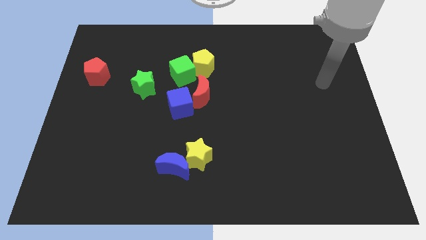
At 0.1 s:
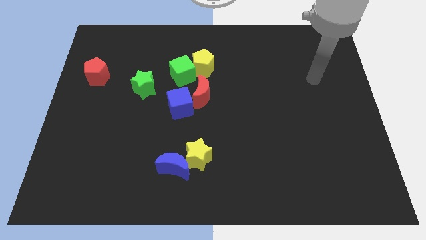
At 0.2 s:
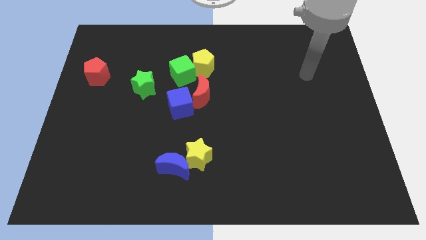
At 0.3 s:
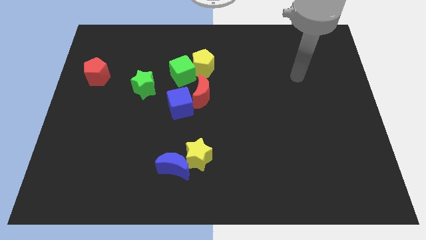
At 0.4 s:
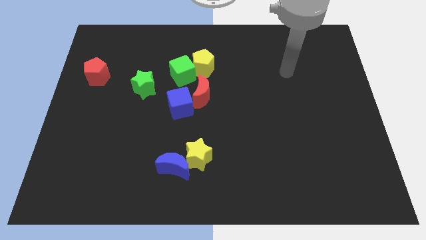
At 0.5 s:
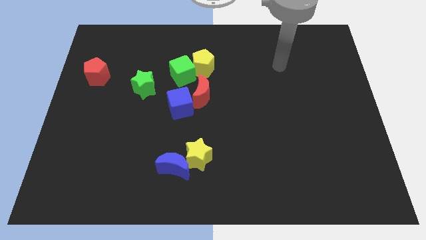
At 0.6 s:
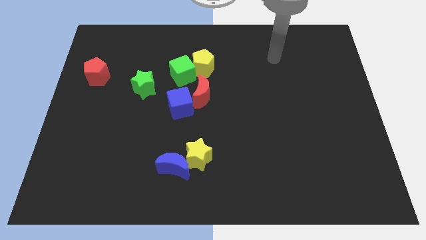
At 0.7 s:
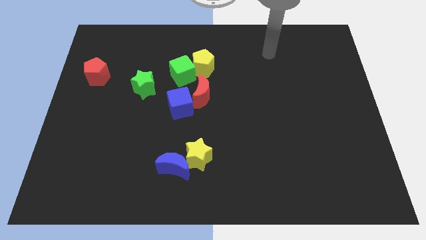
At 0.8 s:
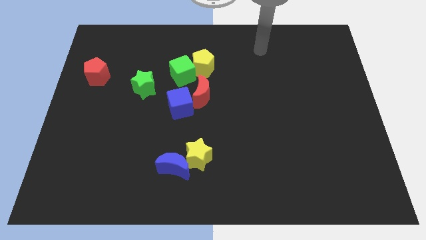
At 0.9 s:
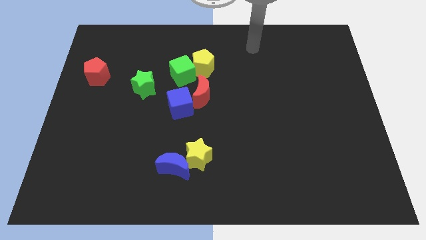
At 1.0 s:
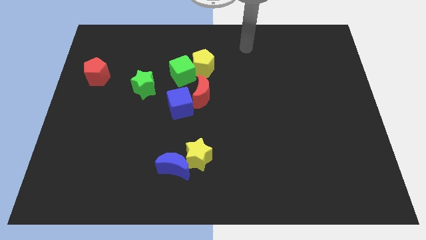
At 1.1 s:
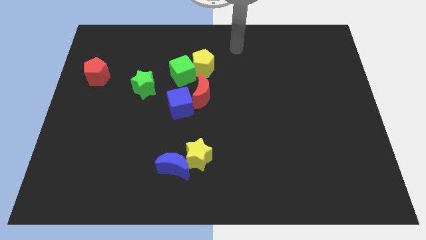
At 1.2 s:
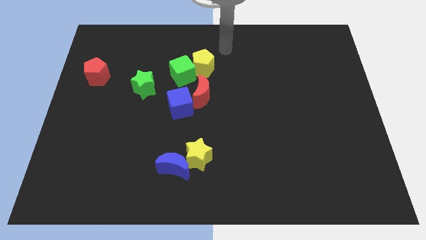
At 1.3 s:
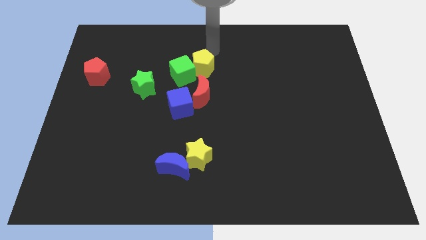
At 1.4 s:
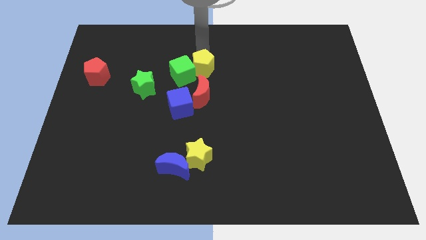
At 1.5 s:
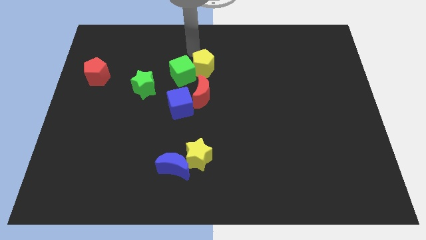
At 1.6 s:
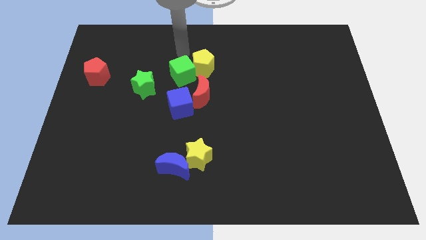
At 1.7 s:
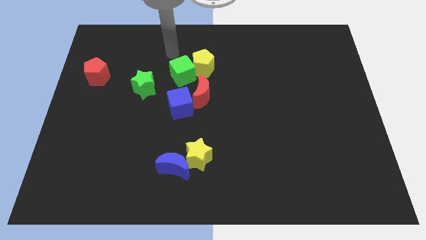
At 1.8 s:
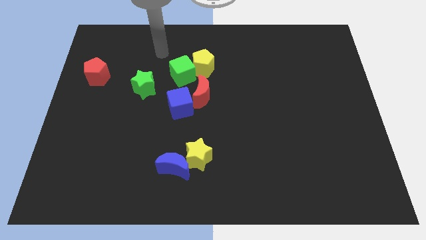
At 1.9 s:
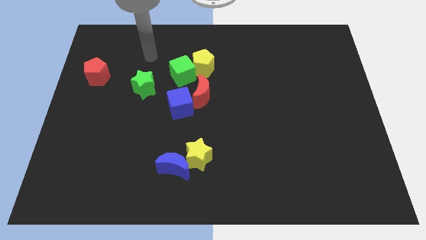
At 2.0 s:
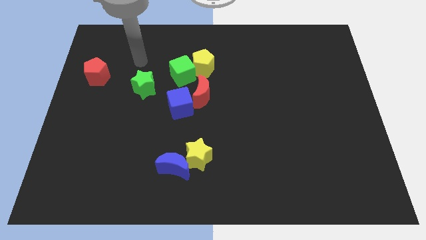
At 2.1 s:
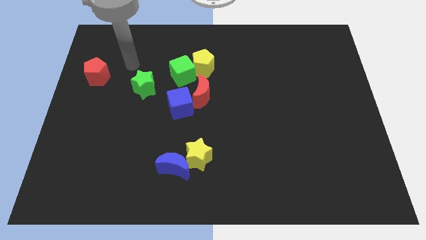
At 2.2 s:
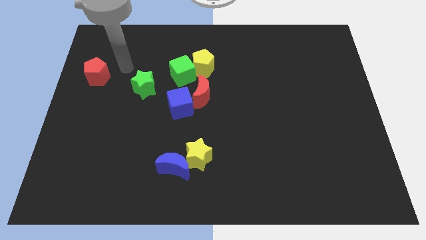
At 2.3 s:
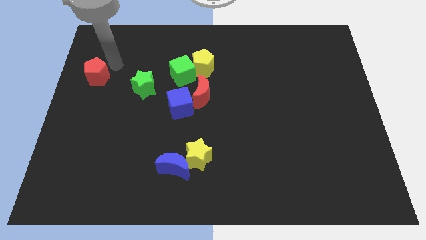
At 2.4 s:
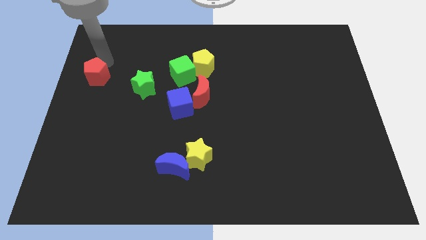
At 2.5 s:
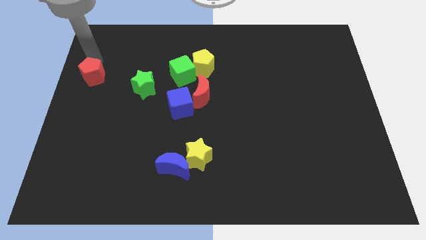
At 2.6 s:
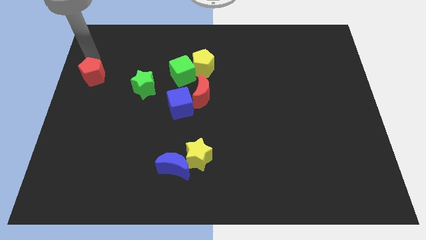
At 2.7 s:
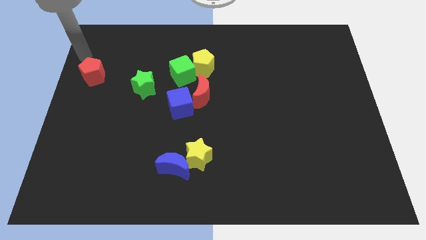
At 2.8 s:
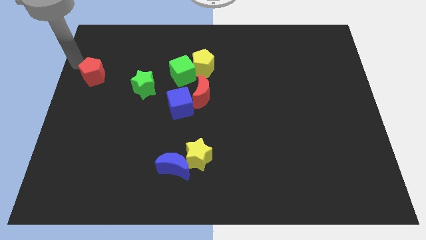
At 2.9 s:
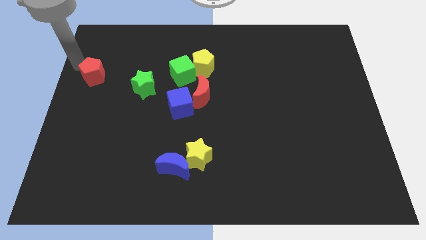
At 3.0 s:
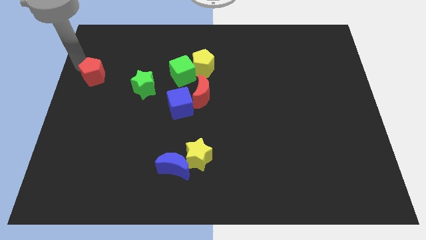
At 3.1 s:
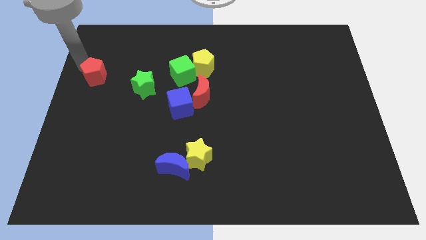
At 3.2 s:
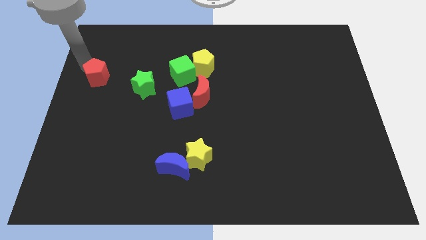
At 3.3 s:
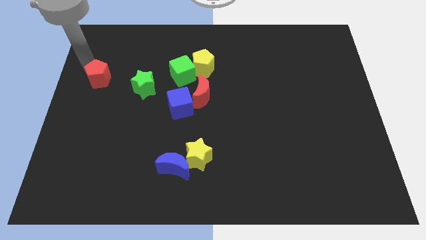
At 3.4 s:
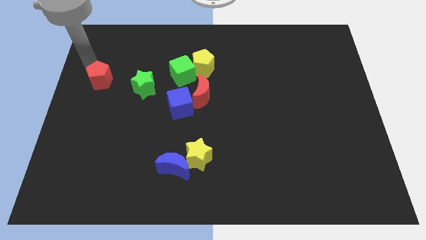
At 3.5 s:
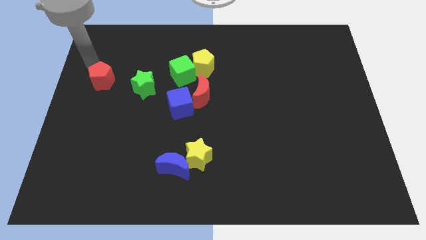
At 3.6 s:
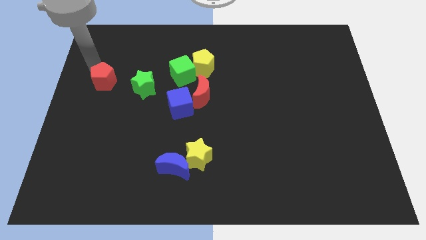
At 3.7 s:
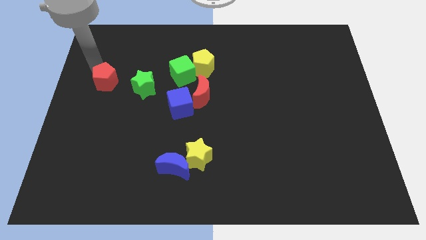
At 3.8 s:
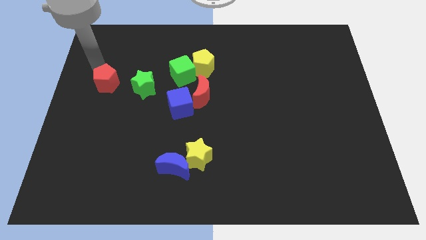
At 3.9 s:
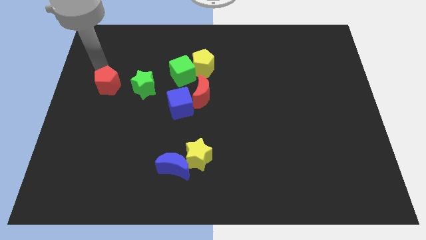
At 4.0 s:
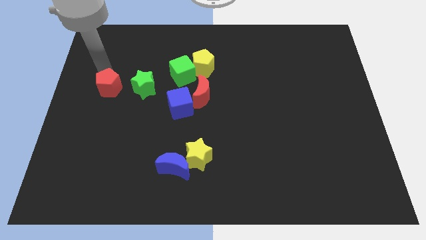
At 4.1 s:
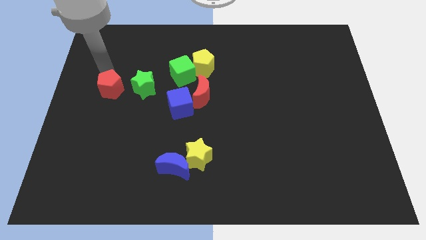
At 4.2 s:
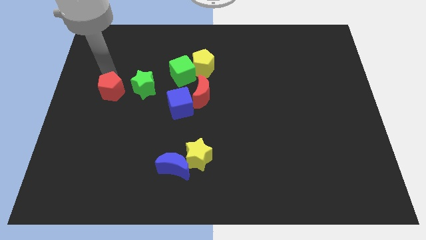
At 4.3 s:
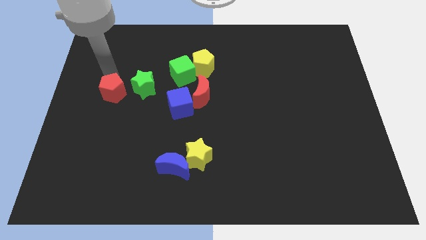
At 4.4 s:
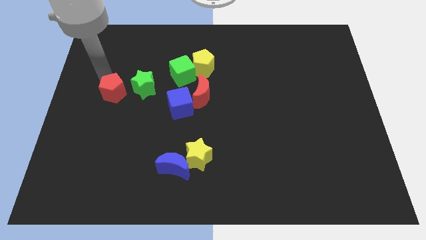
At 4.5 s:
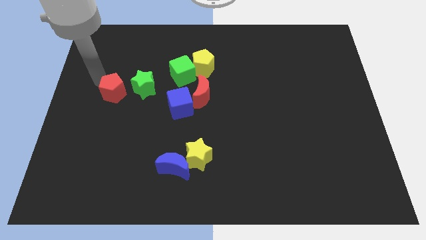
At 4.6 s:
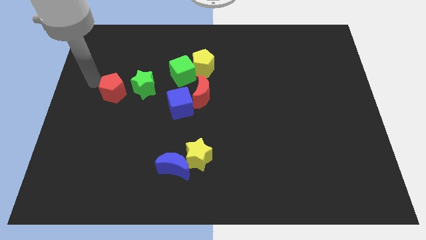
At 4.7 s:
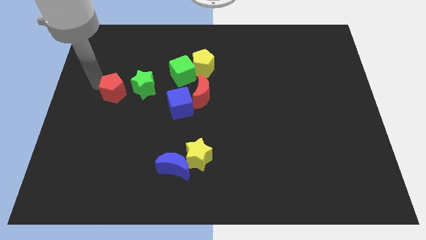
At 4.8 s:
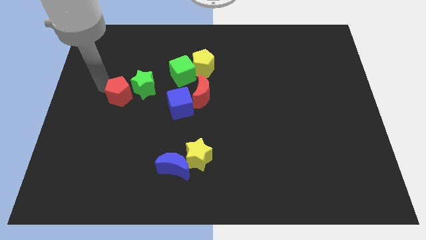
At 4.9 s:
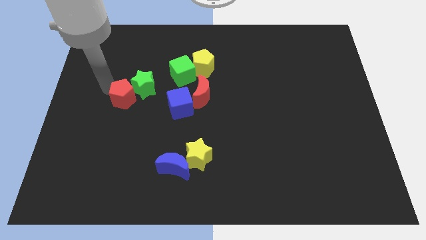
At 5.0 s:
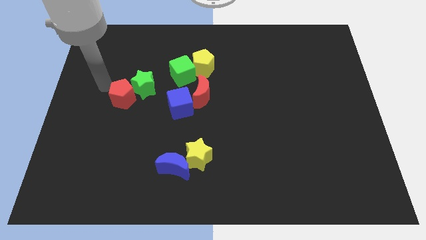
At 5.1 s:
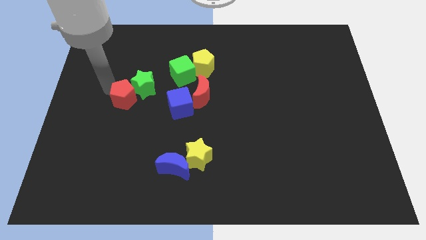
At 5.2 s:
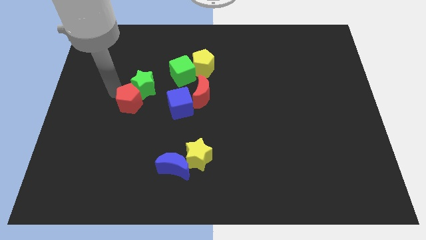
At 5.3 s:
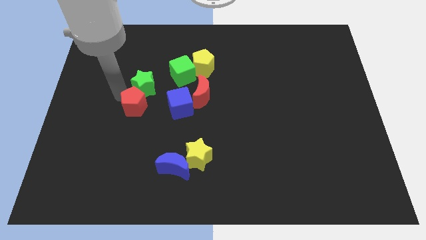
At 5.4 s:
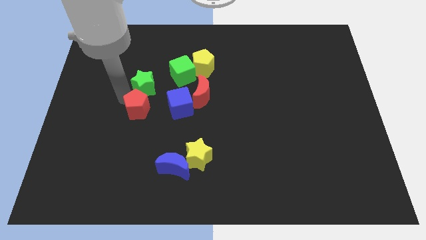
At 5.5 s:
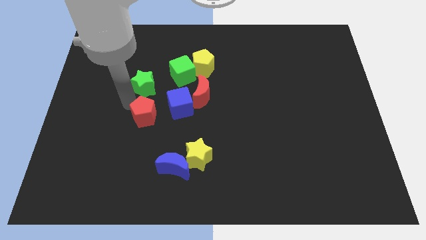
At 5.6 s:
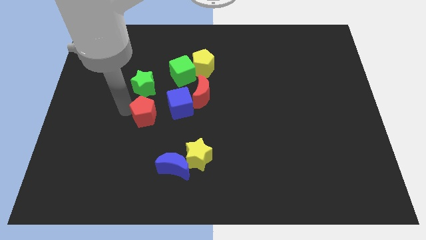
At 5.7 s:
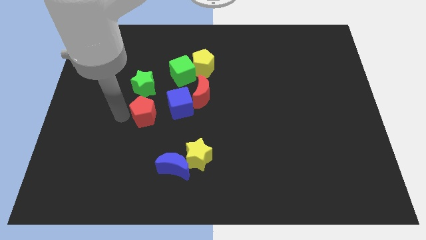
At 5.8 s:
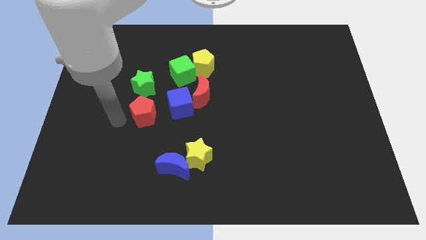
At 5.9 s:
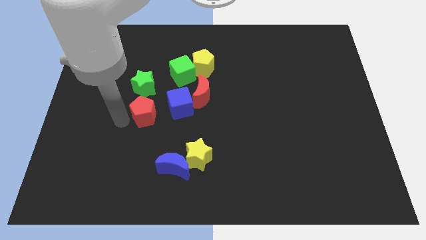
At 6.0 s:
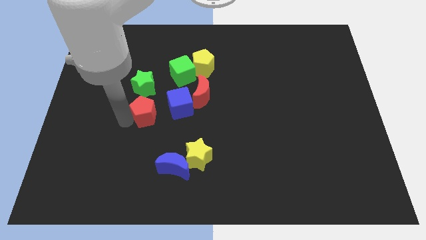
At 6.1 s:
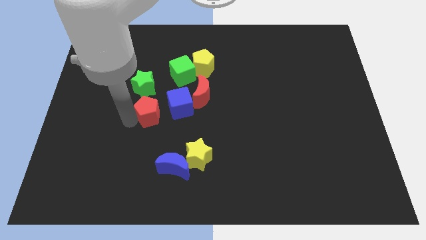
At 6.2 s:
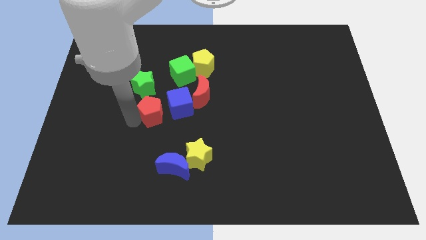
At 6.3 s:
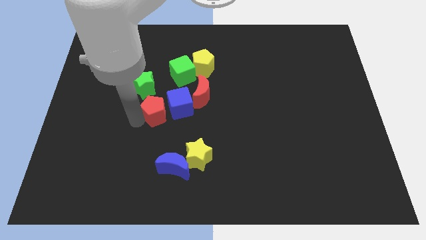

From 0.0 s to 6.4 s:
move the red pentagon close to the blue cube

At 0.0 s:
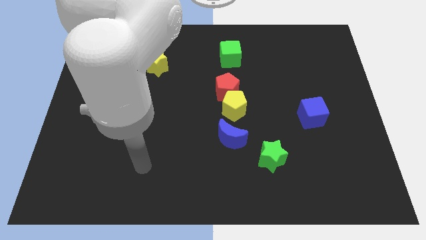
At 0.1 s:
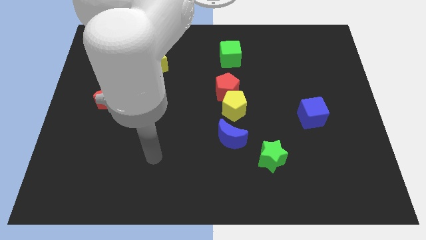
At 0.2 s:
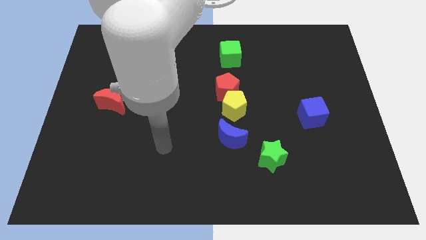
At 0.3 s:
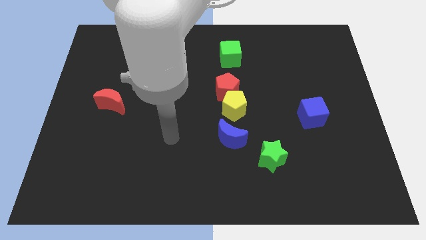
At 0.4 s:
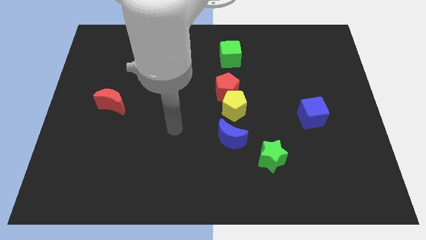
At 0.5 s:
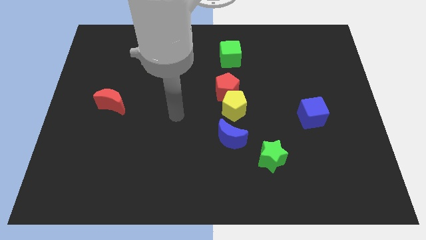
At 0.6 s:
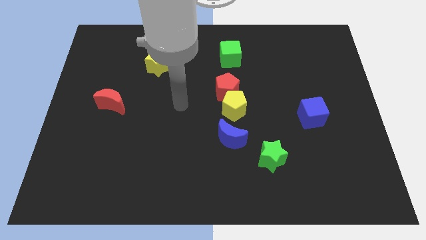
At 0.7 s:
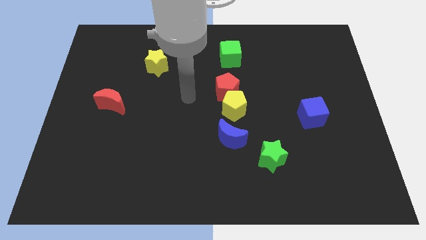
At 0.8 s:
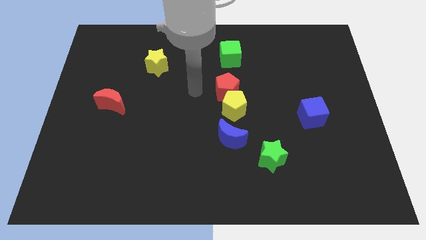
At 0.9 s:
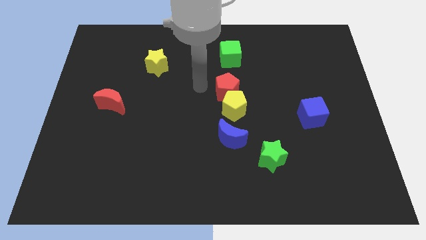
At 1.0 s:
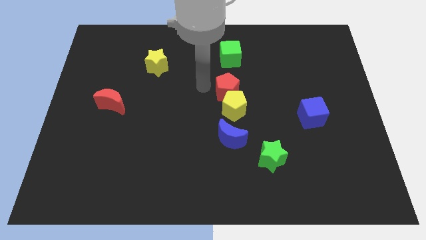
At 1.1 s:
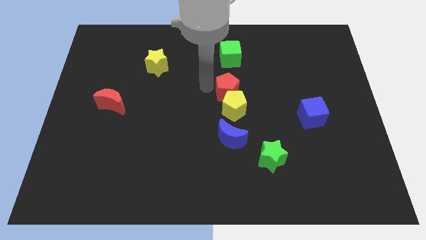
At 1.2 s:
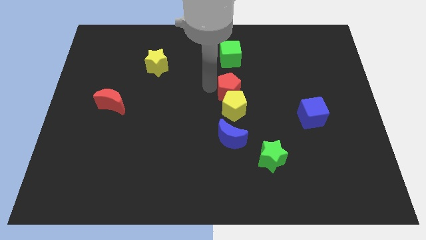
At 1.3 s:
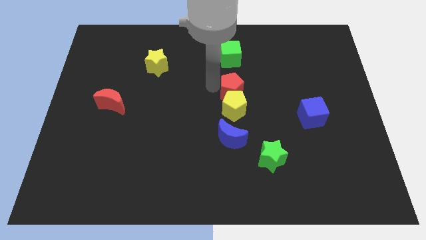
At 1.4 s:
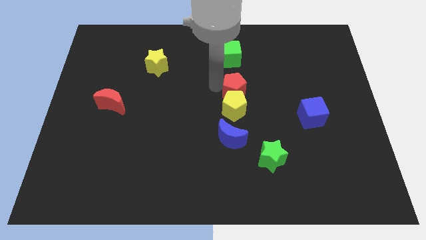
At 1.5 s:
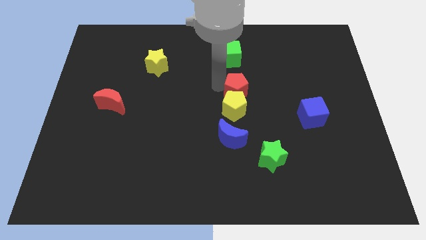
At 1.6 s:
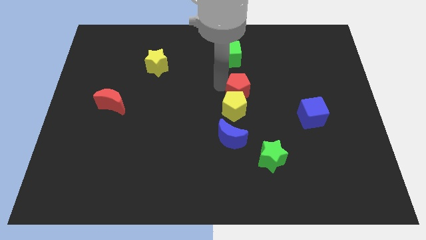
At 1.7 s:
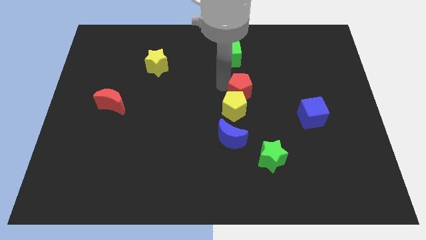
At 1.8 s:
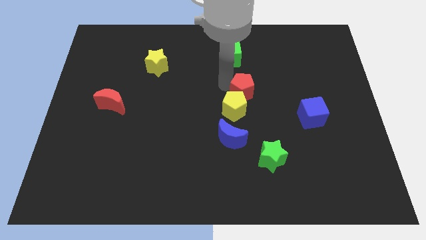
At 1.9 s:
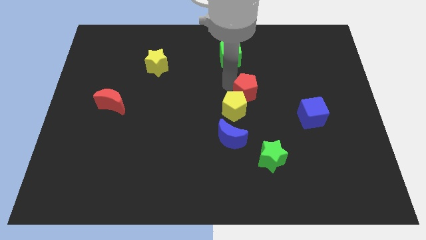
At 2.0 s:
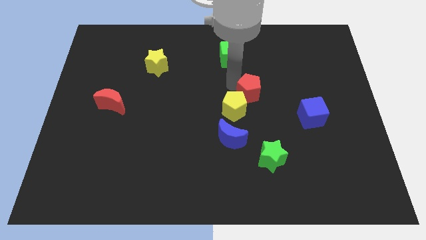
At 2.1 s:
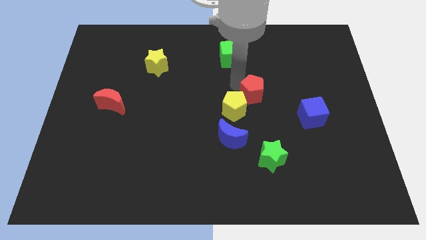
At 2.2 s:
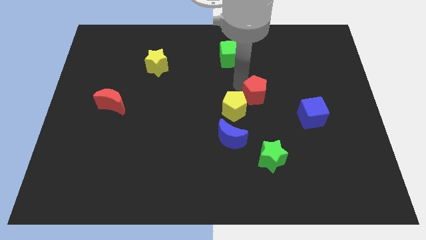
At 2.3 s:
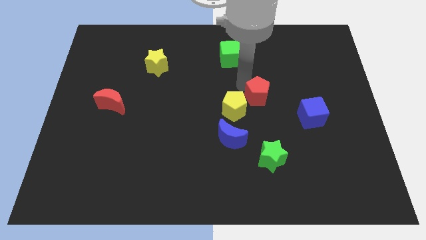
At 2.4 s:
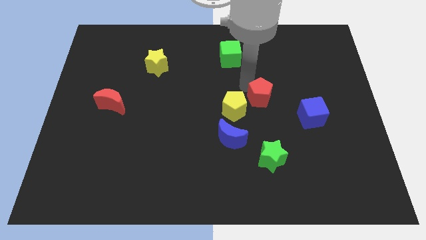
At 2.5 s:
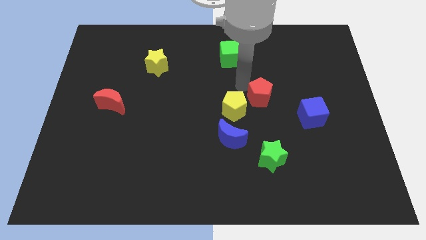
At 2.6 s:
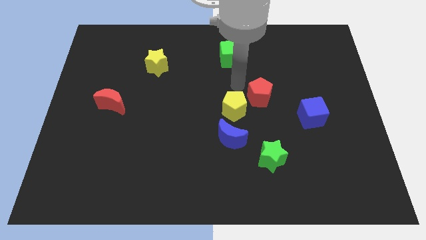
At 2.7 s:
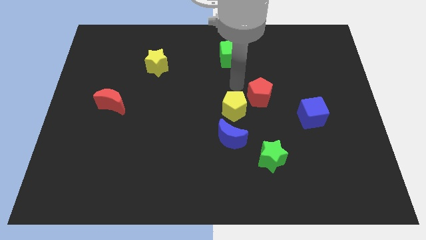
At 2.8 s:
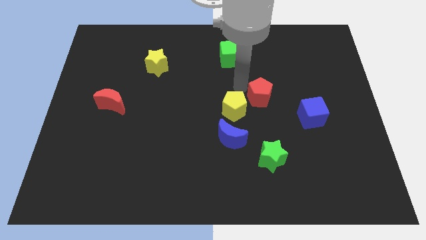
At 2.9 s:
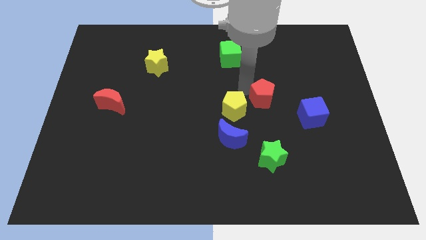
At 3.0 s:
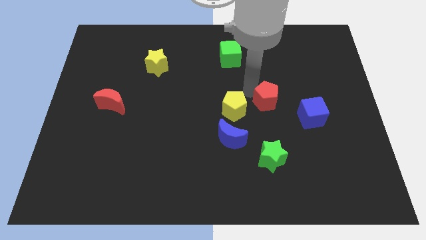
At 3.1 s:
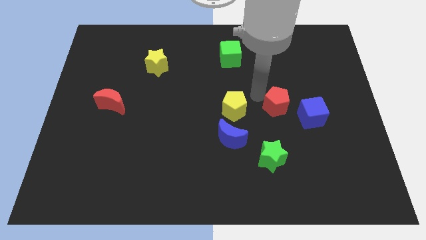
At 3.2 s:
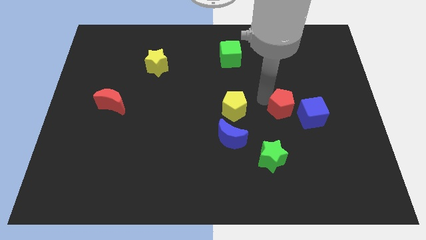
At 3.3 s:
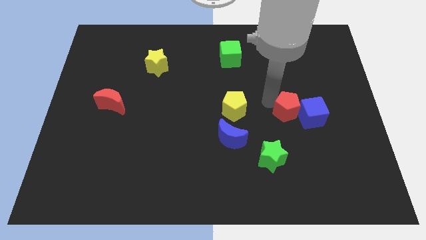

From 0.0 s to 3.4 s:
put the red pentagon close to the blue cube
